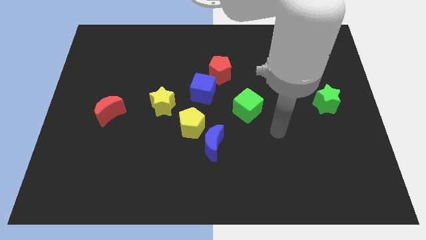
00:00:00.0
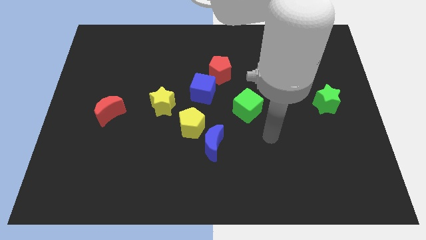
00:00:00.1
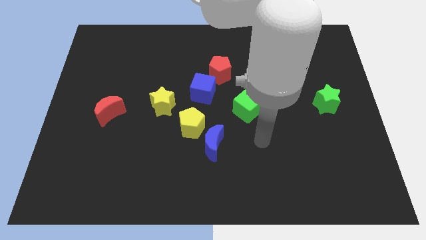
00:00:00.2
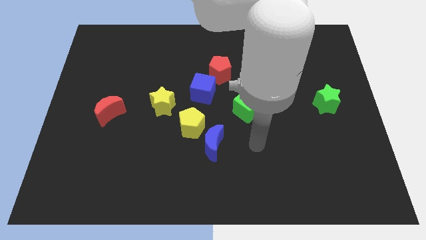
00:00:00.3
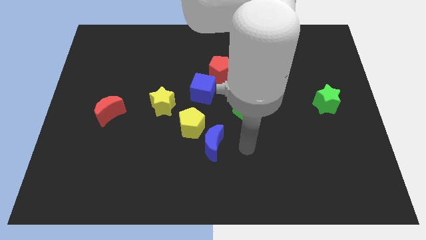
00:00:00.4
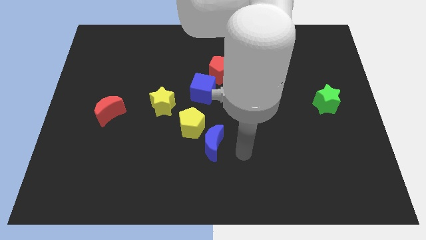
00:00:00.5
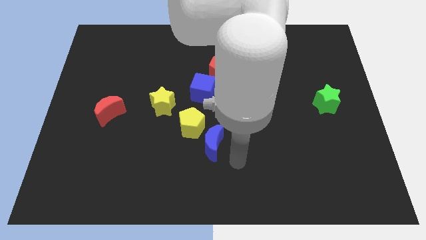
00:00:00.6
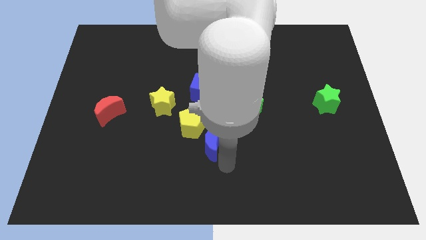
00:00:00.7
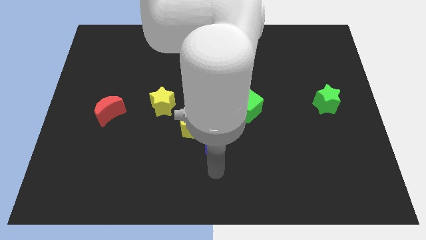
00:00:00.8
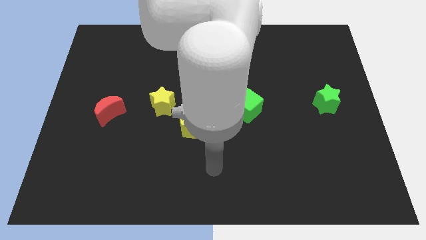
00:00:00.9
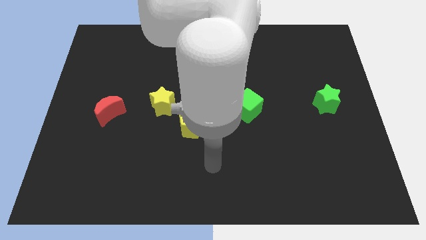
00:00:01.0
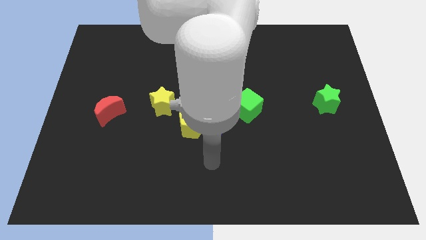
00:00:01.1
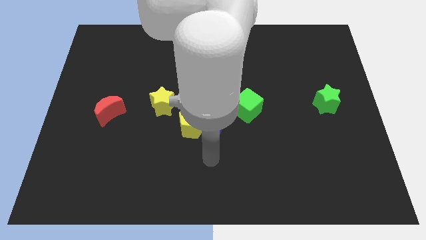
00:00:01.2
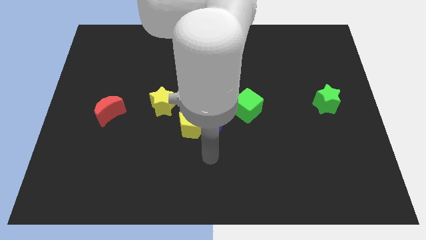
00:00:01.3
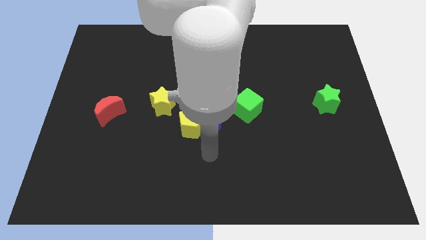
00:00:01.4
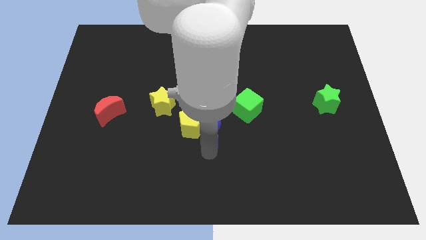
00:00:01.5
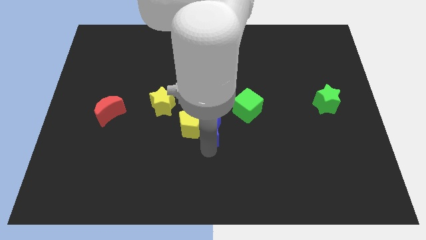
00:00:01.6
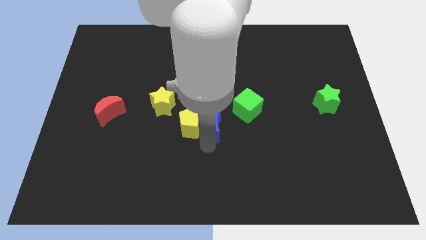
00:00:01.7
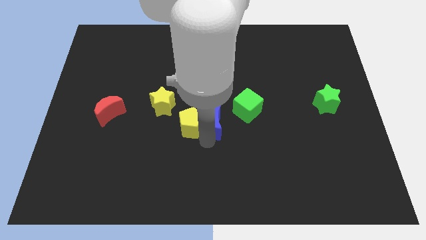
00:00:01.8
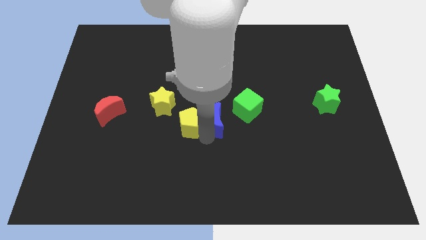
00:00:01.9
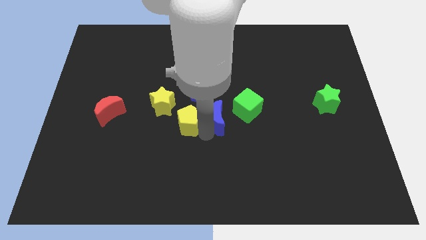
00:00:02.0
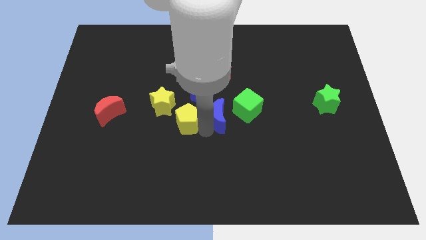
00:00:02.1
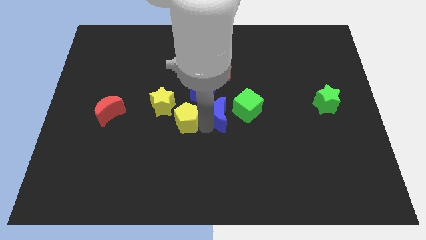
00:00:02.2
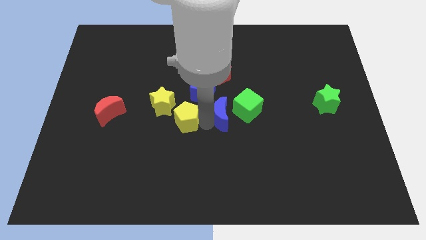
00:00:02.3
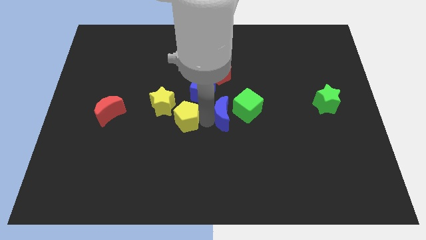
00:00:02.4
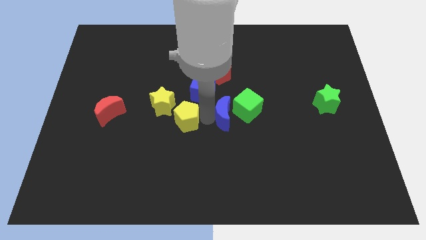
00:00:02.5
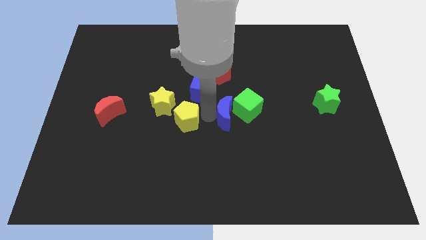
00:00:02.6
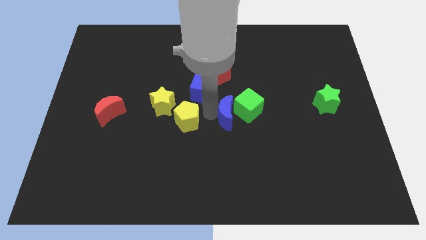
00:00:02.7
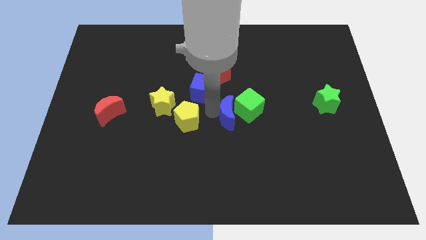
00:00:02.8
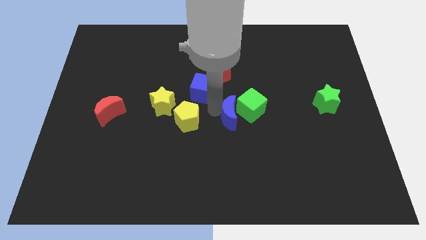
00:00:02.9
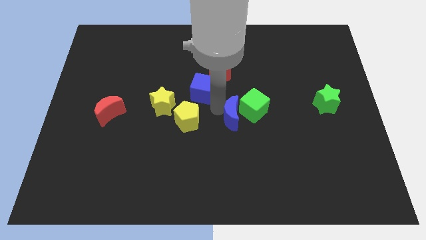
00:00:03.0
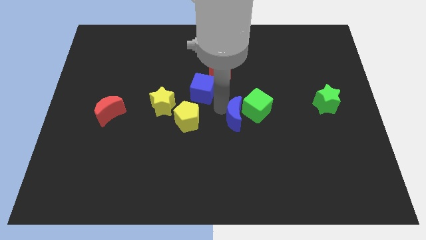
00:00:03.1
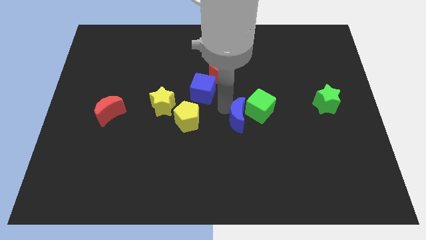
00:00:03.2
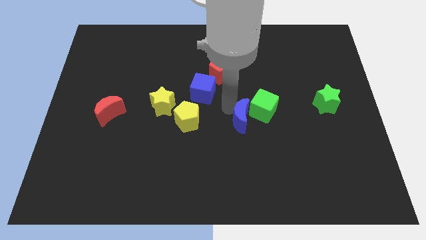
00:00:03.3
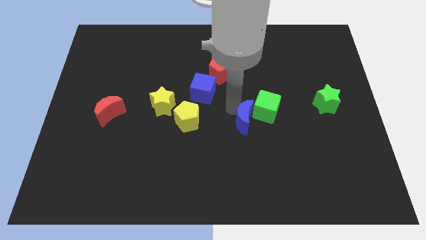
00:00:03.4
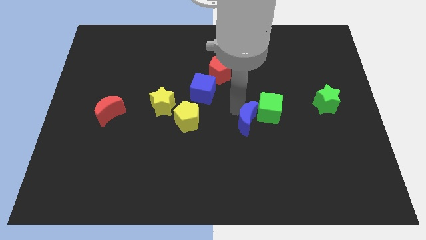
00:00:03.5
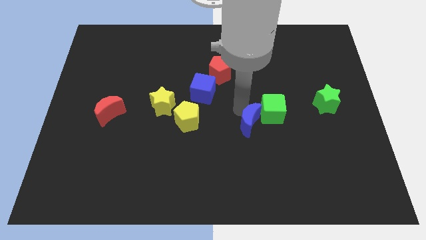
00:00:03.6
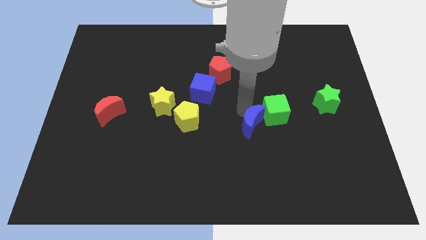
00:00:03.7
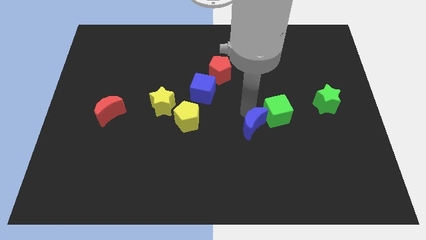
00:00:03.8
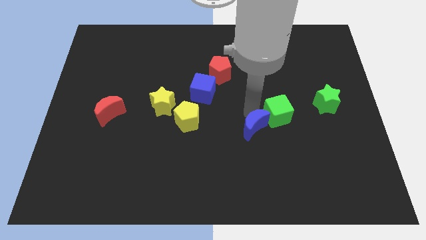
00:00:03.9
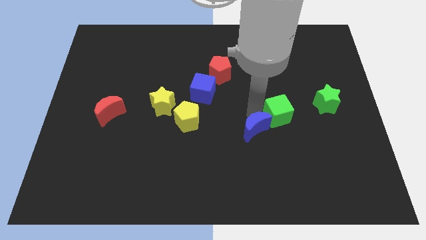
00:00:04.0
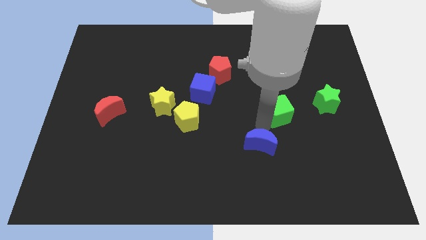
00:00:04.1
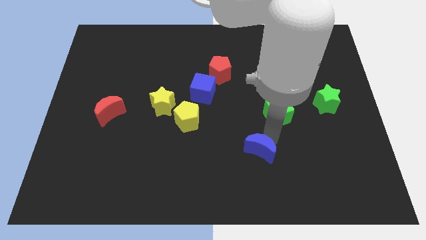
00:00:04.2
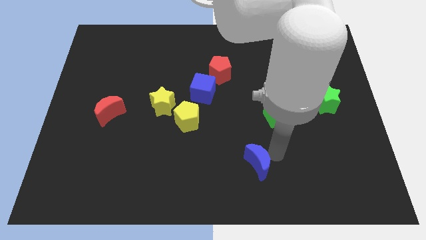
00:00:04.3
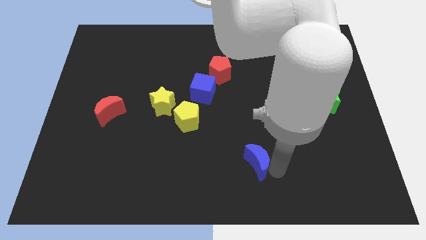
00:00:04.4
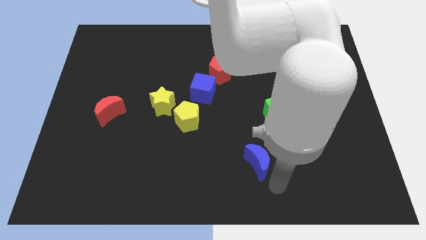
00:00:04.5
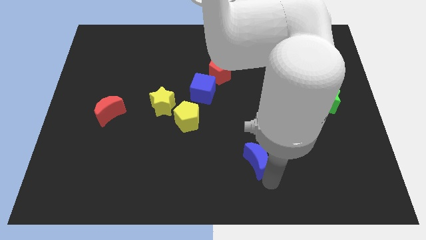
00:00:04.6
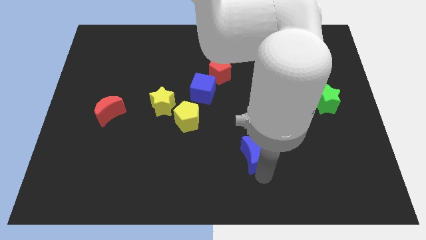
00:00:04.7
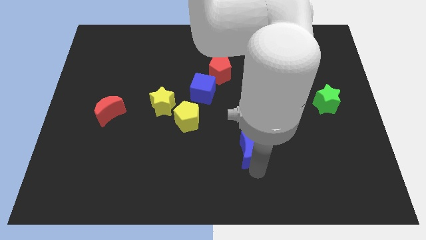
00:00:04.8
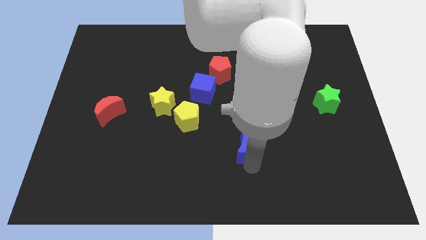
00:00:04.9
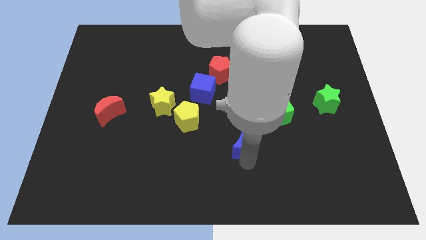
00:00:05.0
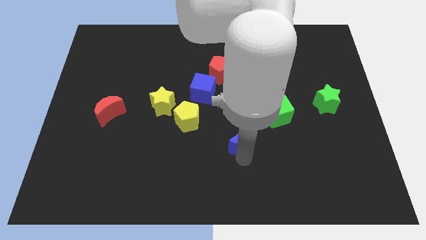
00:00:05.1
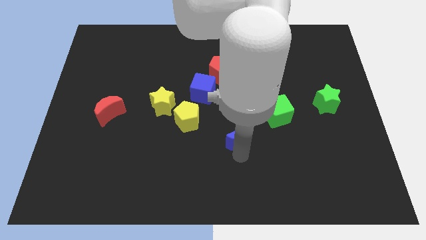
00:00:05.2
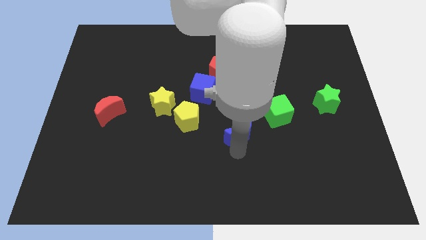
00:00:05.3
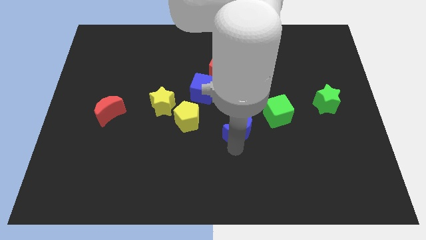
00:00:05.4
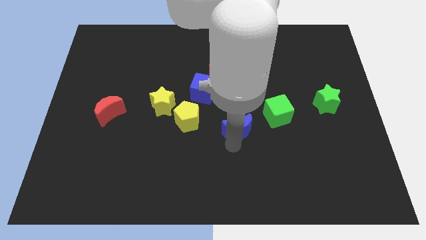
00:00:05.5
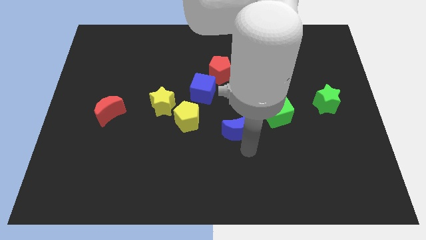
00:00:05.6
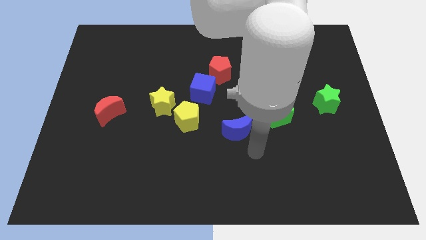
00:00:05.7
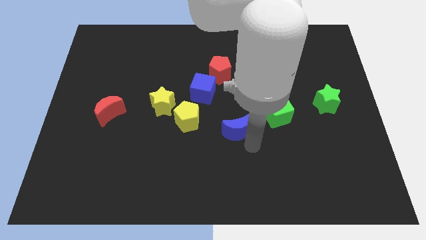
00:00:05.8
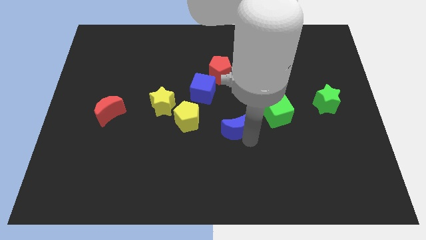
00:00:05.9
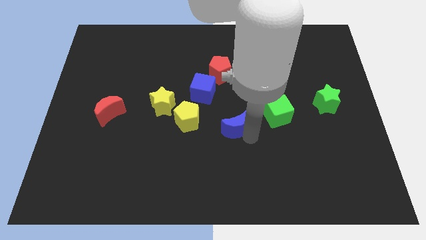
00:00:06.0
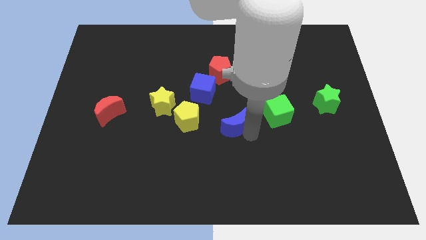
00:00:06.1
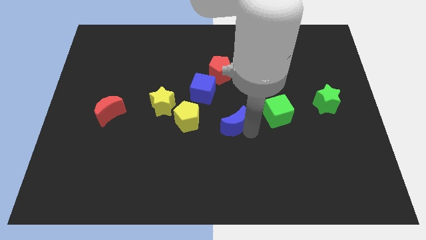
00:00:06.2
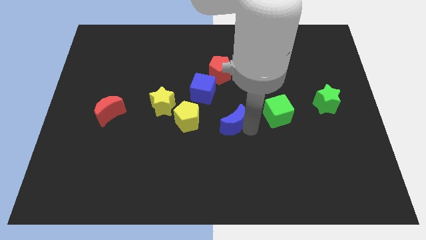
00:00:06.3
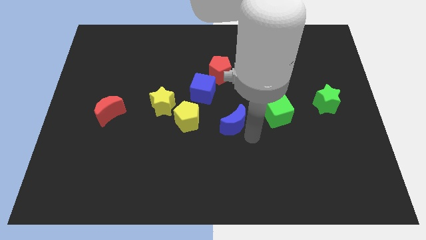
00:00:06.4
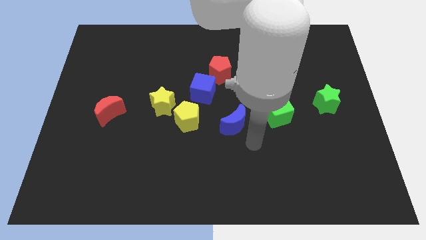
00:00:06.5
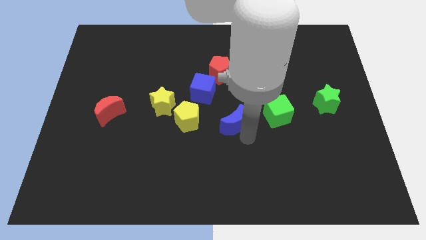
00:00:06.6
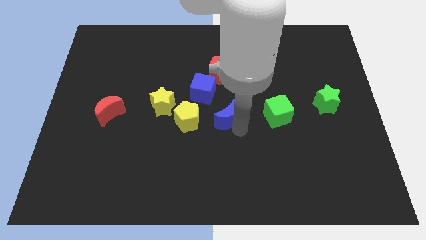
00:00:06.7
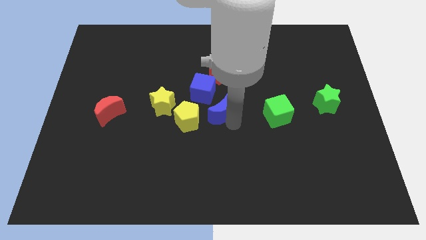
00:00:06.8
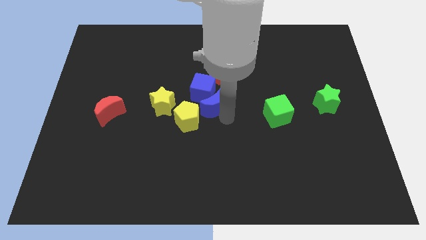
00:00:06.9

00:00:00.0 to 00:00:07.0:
put the blue moon next to the blue cube
